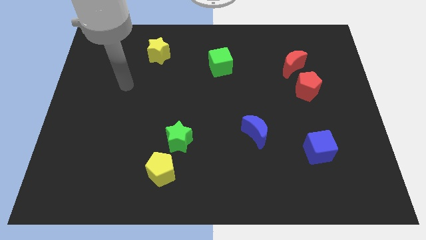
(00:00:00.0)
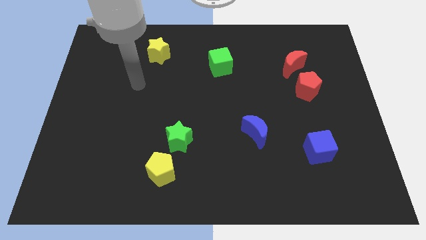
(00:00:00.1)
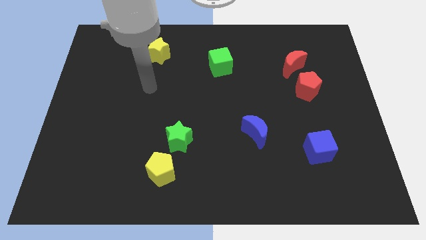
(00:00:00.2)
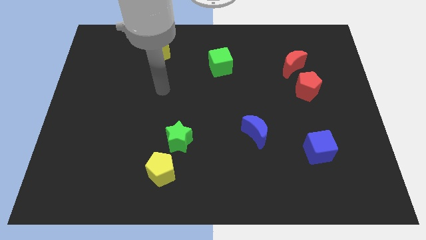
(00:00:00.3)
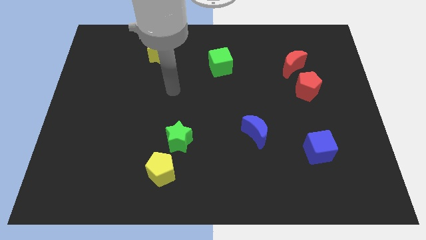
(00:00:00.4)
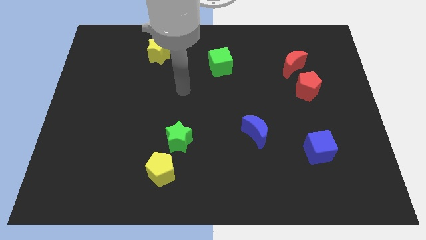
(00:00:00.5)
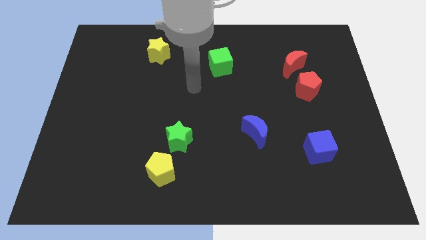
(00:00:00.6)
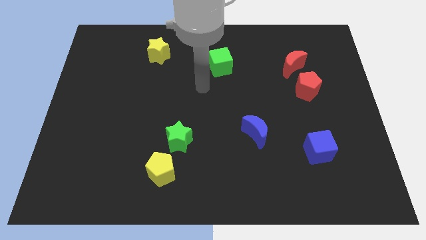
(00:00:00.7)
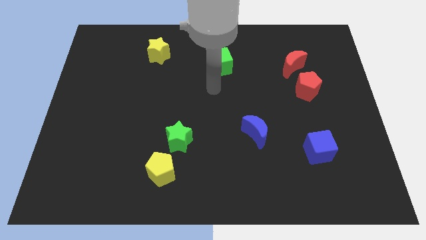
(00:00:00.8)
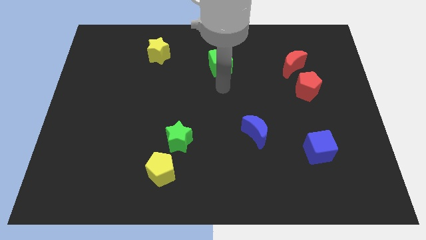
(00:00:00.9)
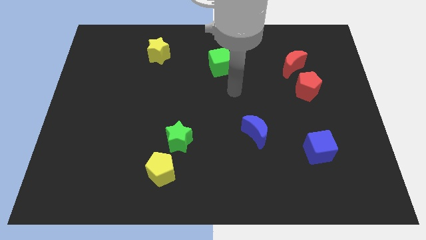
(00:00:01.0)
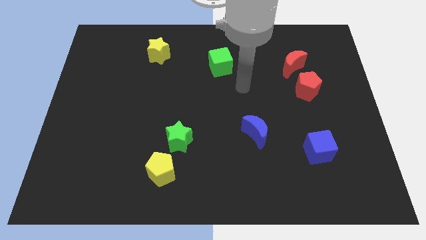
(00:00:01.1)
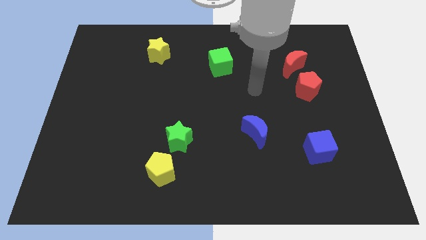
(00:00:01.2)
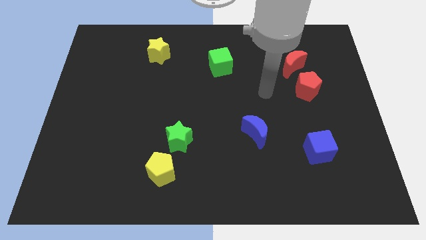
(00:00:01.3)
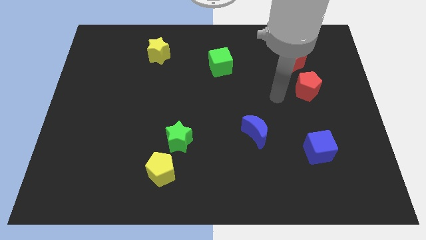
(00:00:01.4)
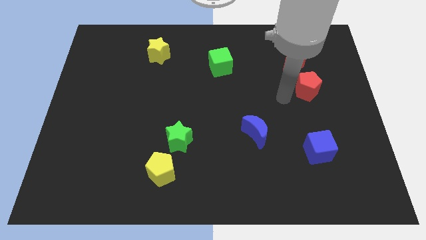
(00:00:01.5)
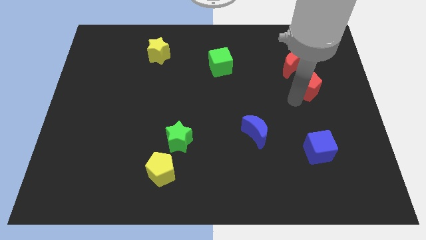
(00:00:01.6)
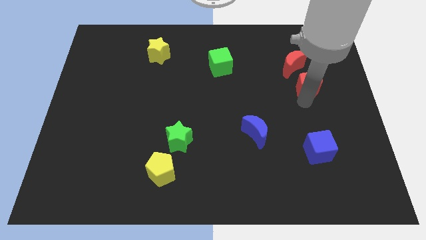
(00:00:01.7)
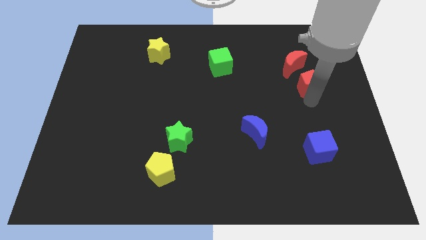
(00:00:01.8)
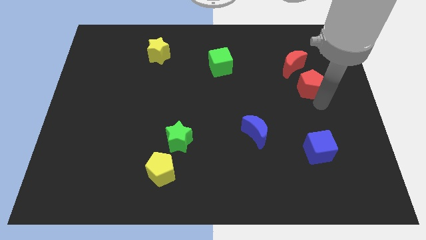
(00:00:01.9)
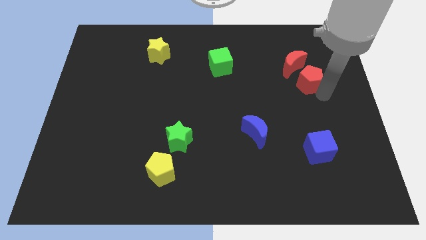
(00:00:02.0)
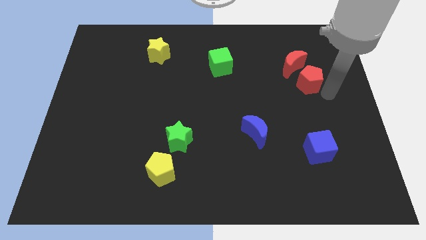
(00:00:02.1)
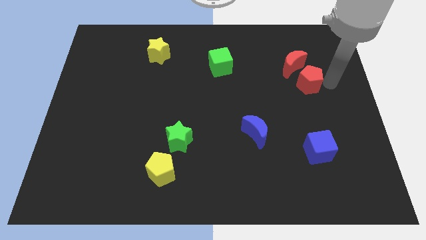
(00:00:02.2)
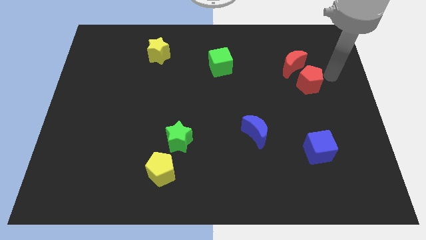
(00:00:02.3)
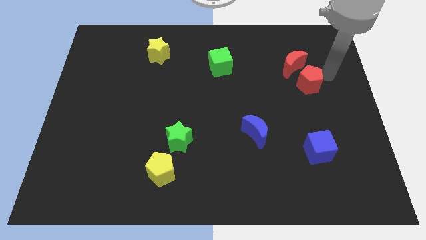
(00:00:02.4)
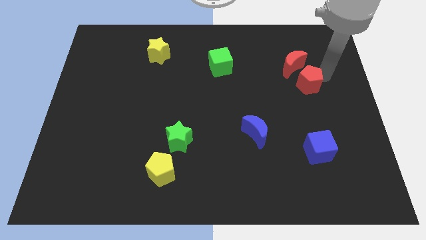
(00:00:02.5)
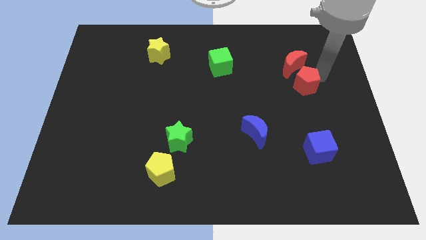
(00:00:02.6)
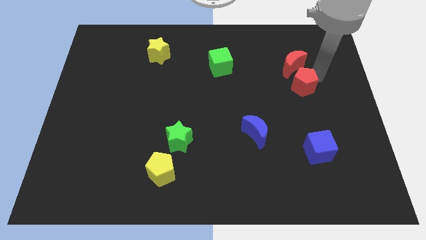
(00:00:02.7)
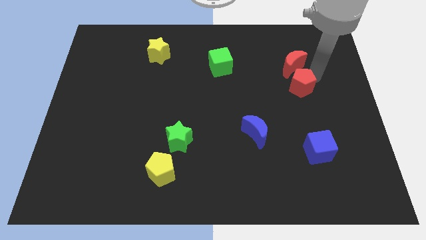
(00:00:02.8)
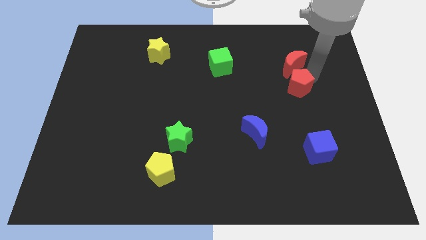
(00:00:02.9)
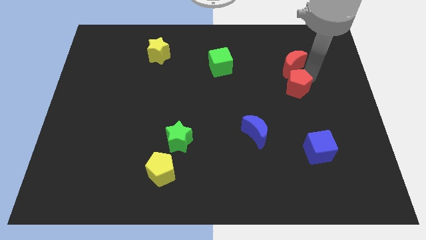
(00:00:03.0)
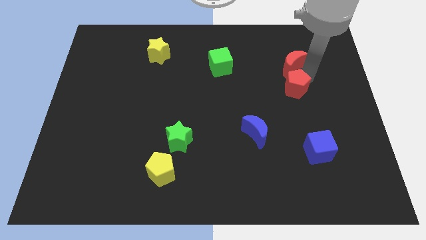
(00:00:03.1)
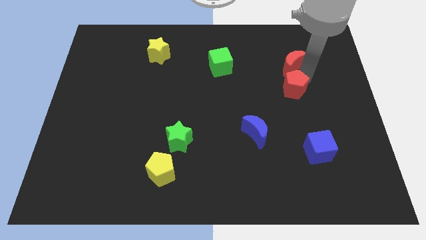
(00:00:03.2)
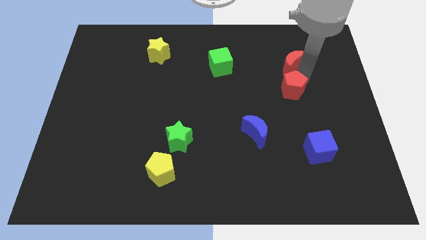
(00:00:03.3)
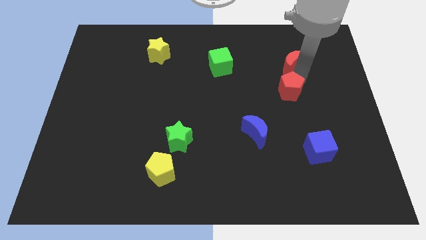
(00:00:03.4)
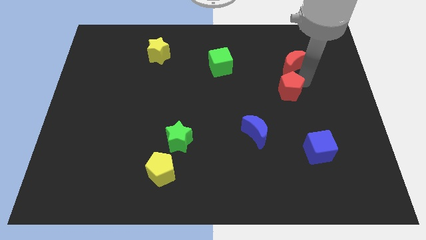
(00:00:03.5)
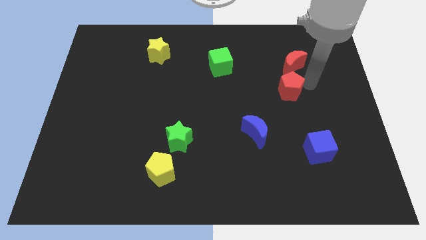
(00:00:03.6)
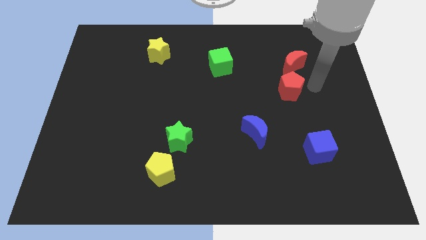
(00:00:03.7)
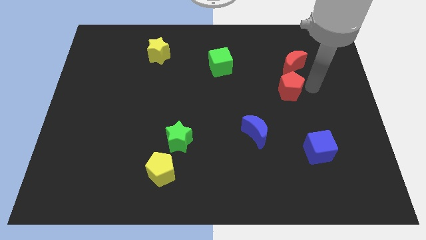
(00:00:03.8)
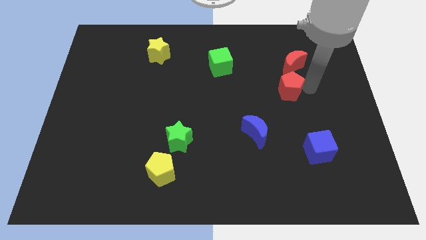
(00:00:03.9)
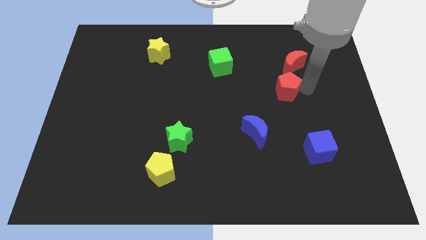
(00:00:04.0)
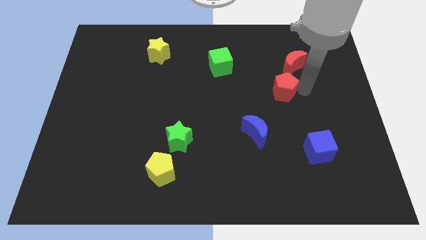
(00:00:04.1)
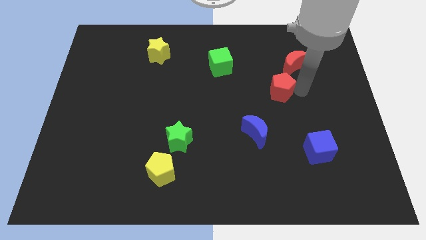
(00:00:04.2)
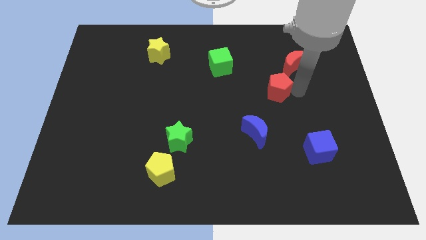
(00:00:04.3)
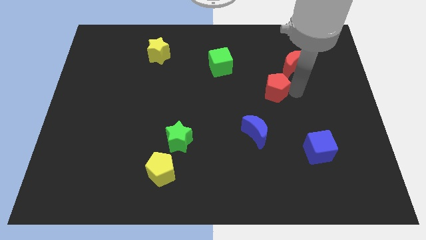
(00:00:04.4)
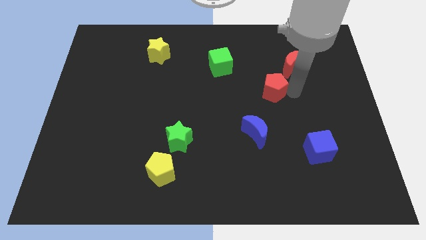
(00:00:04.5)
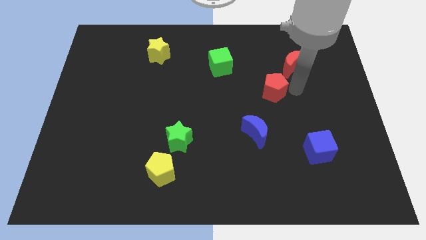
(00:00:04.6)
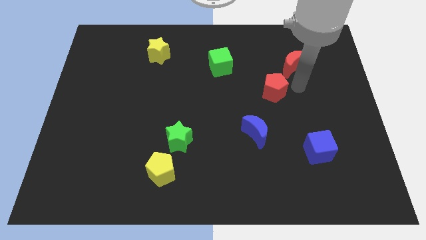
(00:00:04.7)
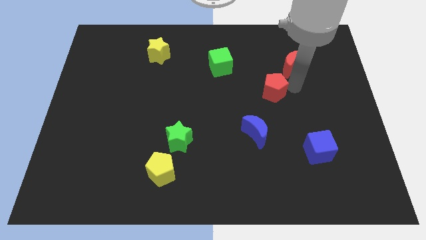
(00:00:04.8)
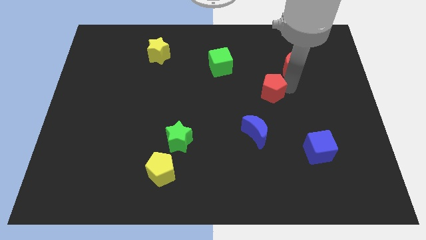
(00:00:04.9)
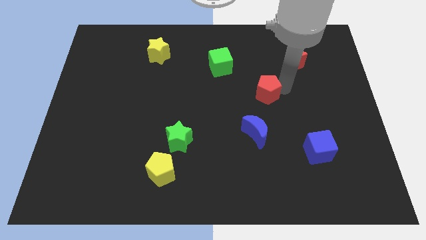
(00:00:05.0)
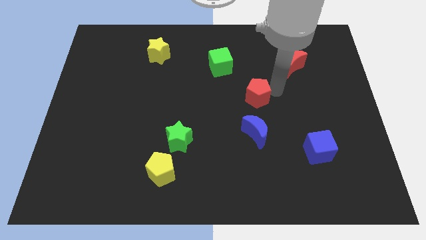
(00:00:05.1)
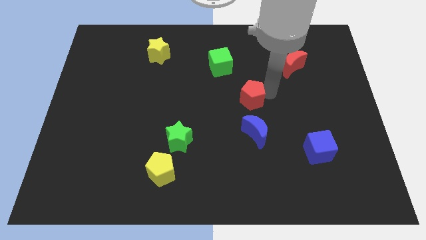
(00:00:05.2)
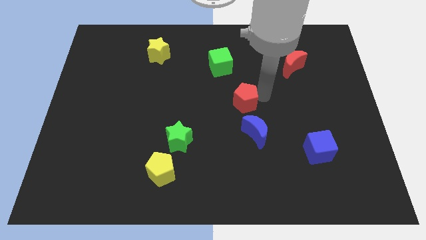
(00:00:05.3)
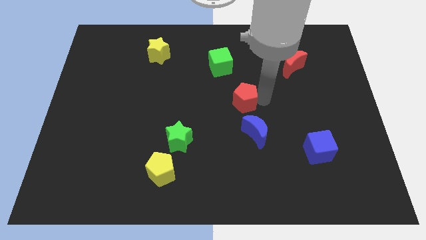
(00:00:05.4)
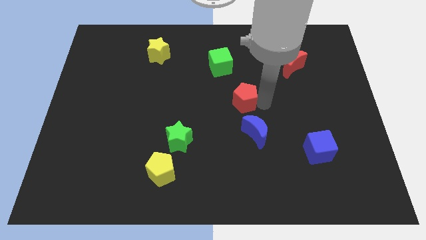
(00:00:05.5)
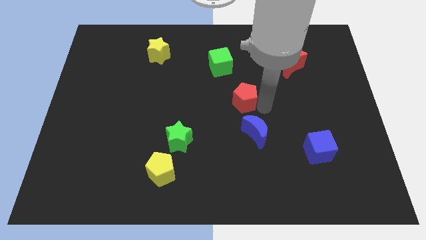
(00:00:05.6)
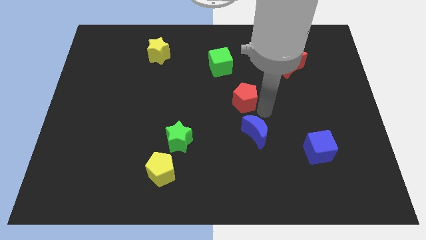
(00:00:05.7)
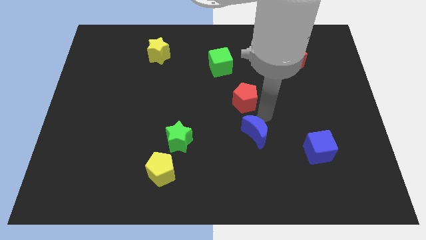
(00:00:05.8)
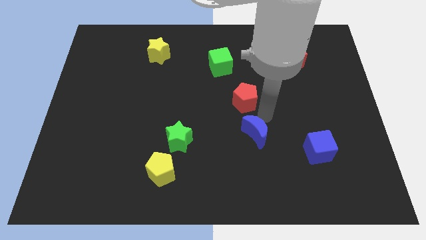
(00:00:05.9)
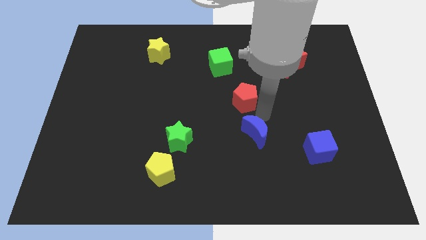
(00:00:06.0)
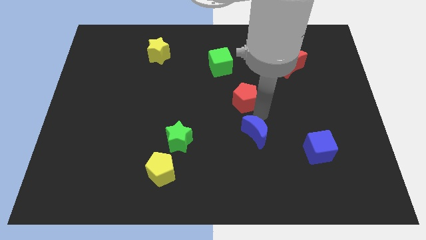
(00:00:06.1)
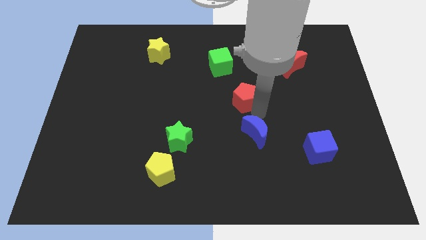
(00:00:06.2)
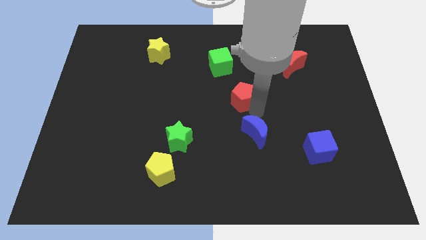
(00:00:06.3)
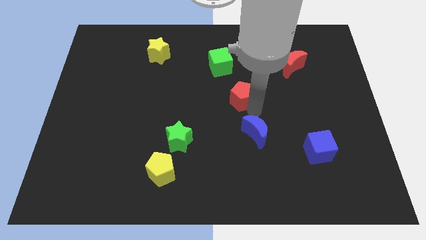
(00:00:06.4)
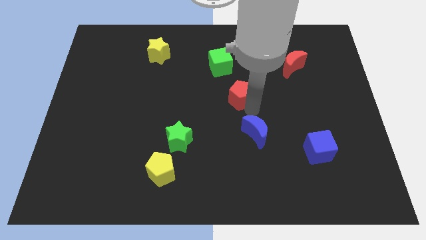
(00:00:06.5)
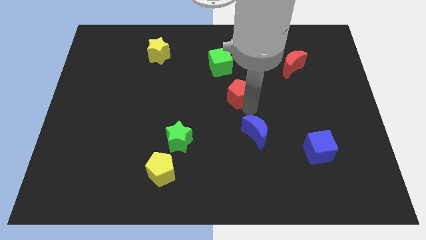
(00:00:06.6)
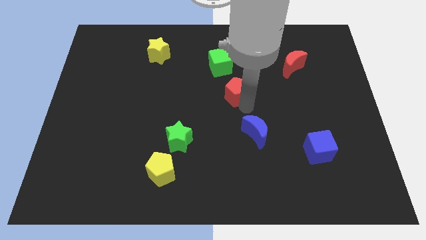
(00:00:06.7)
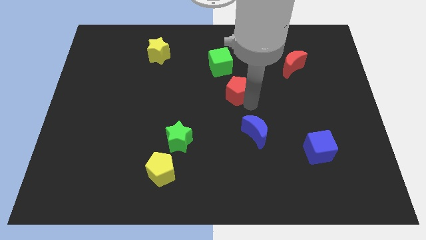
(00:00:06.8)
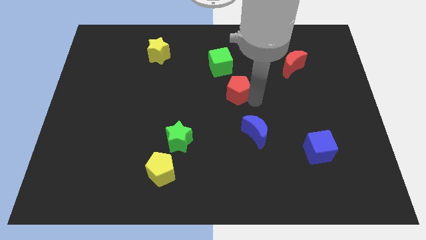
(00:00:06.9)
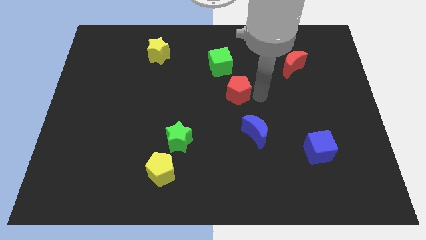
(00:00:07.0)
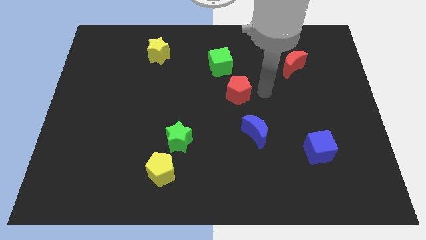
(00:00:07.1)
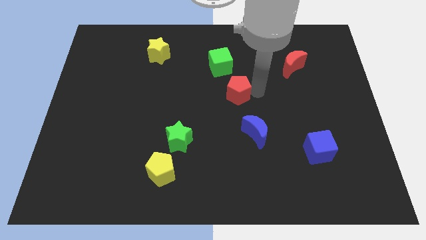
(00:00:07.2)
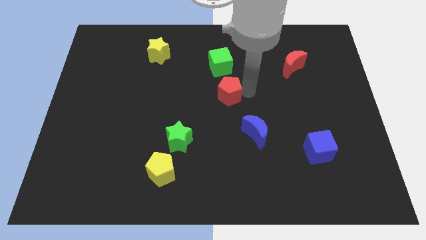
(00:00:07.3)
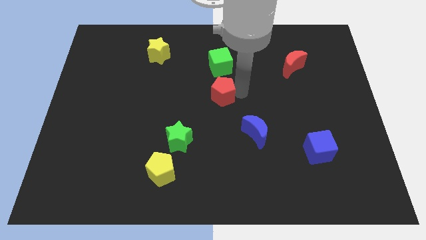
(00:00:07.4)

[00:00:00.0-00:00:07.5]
push the red pentagon left
